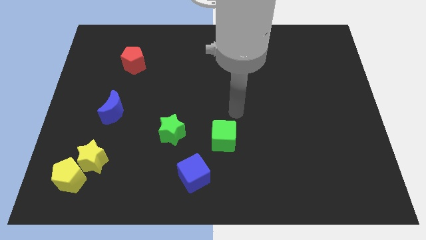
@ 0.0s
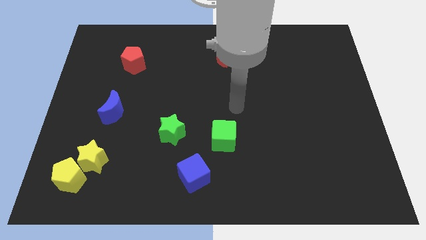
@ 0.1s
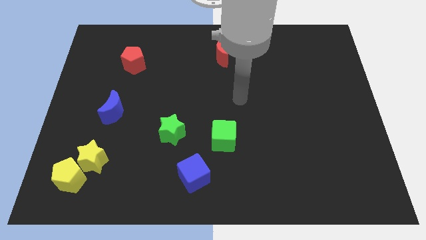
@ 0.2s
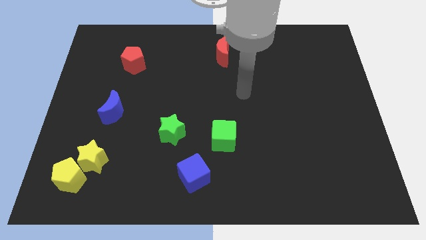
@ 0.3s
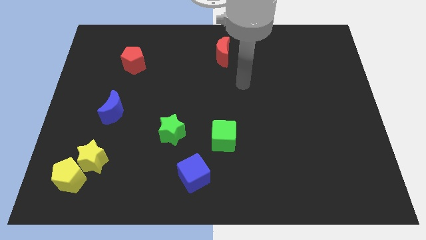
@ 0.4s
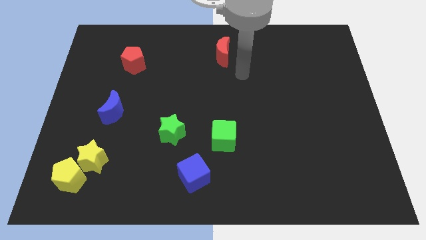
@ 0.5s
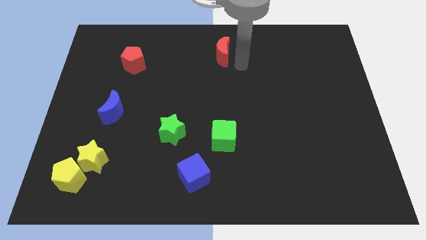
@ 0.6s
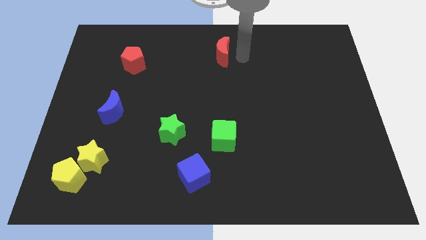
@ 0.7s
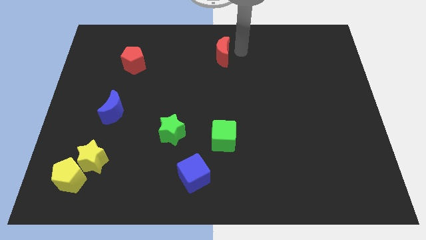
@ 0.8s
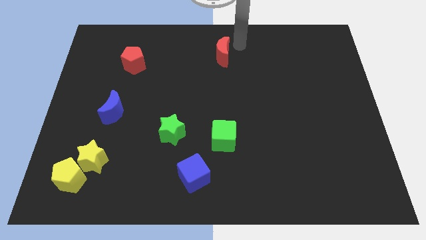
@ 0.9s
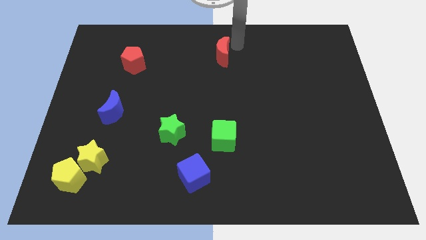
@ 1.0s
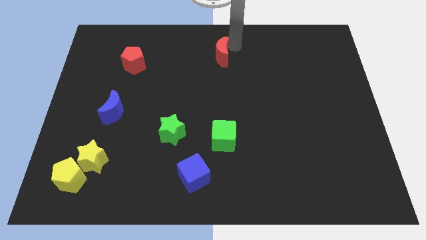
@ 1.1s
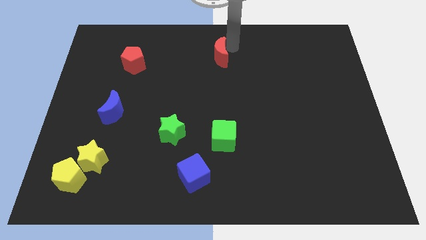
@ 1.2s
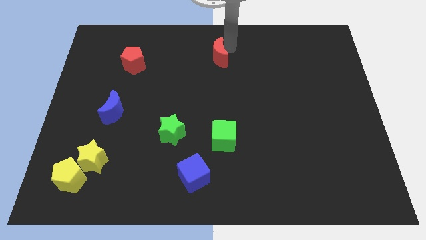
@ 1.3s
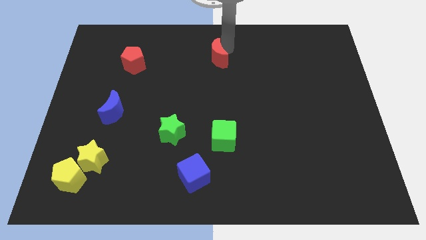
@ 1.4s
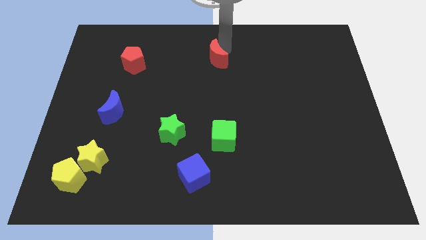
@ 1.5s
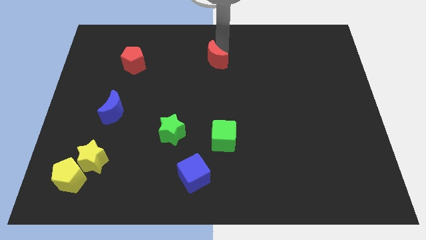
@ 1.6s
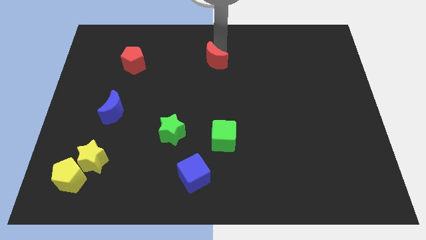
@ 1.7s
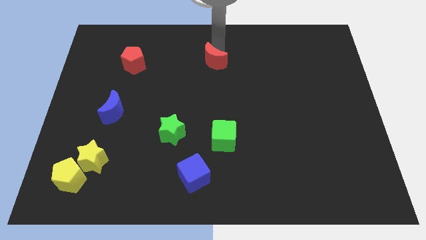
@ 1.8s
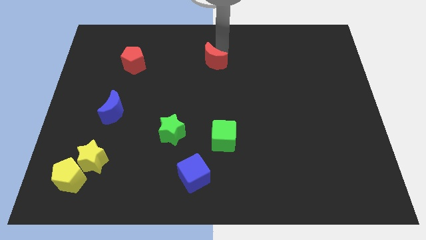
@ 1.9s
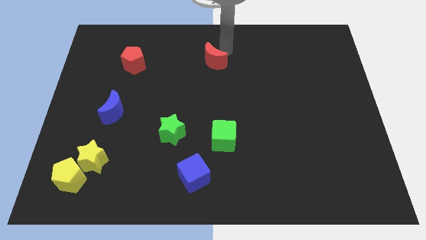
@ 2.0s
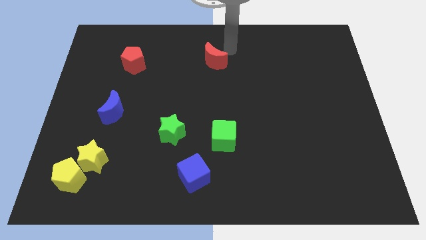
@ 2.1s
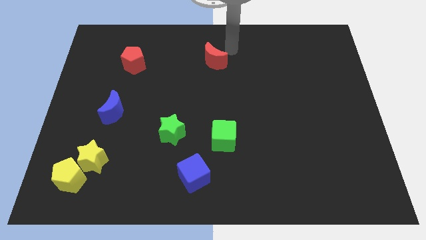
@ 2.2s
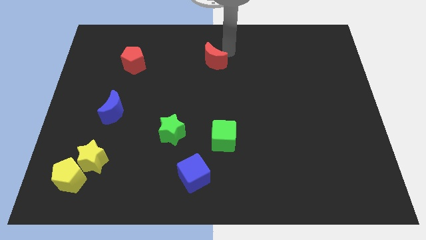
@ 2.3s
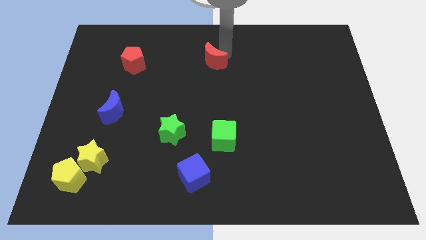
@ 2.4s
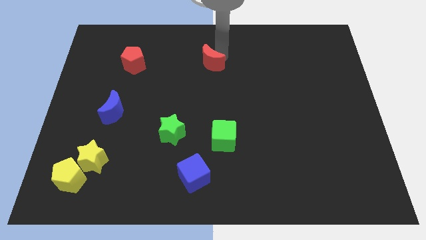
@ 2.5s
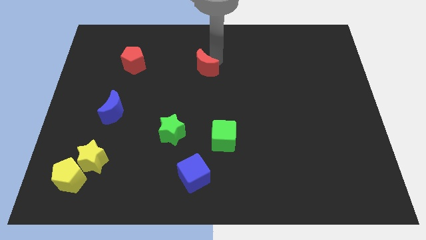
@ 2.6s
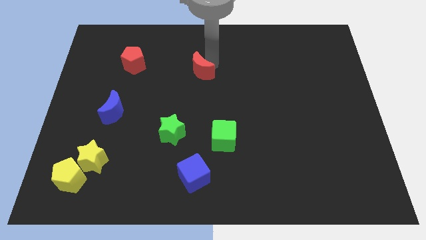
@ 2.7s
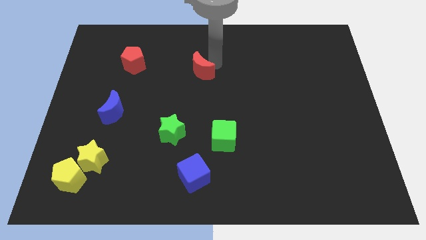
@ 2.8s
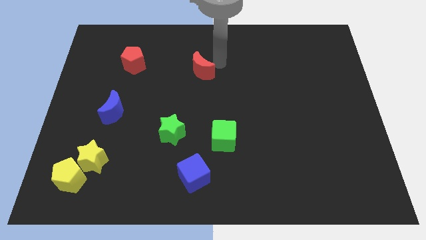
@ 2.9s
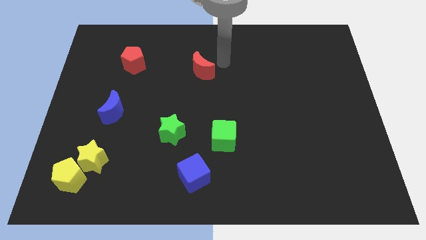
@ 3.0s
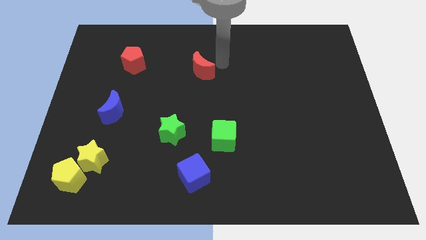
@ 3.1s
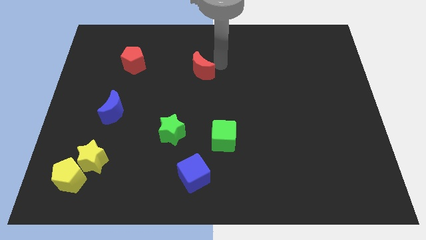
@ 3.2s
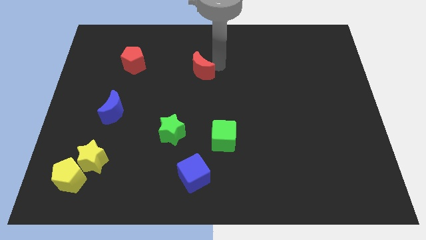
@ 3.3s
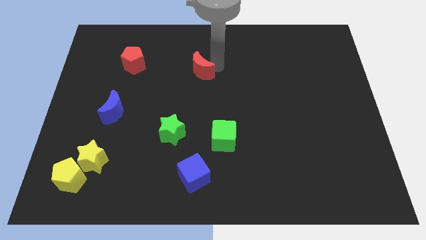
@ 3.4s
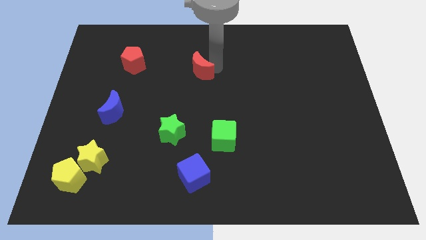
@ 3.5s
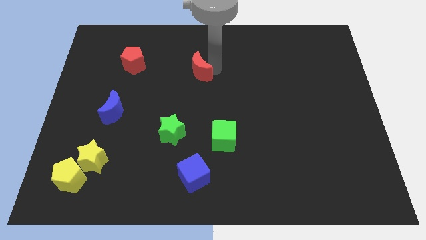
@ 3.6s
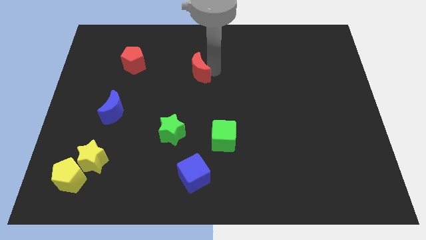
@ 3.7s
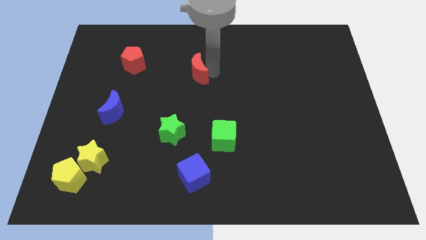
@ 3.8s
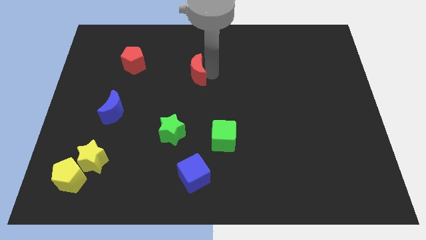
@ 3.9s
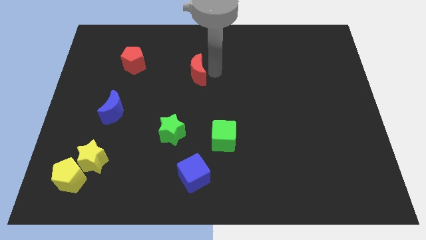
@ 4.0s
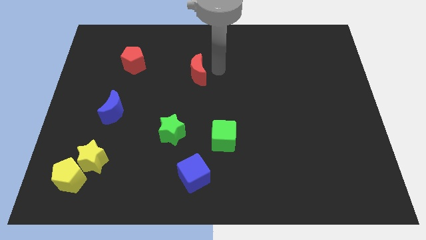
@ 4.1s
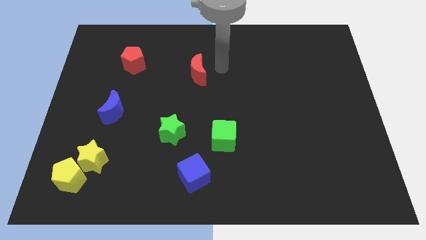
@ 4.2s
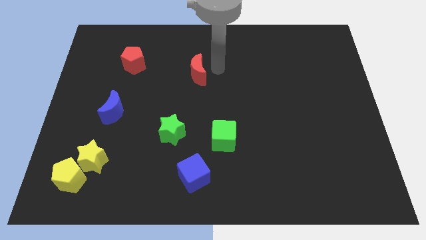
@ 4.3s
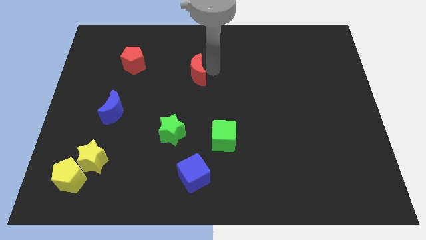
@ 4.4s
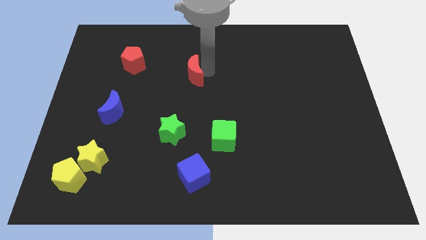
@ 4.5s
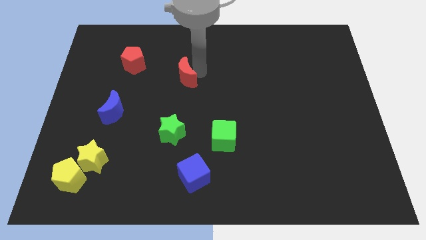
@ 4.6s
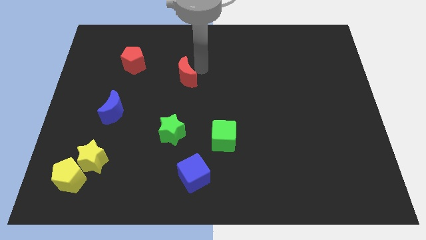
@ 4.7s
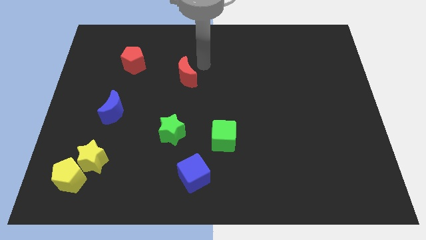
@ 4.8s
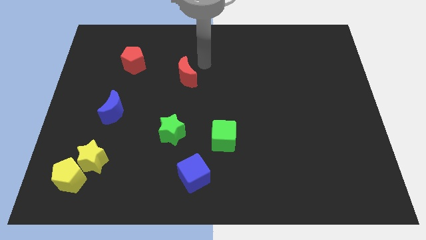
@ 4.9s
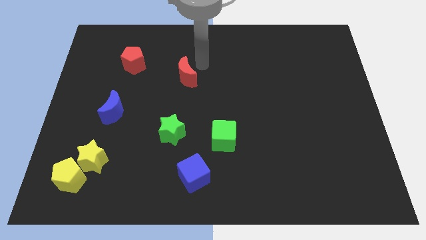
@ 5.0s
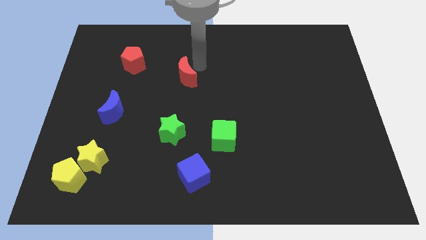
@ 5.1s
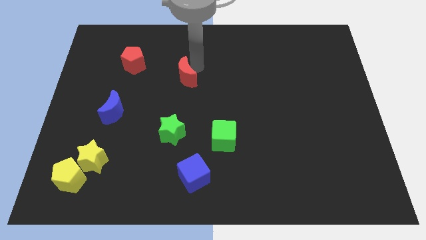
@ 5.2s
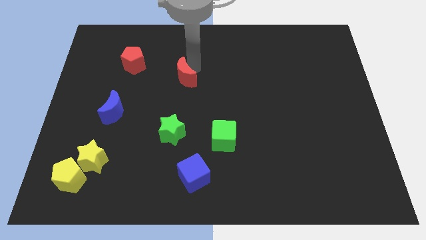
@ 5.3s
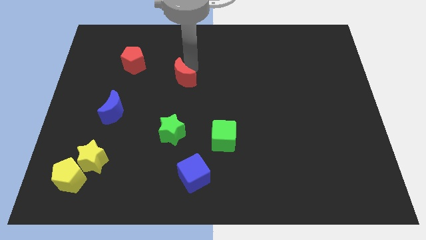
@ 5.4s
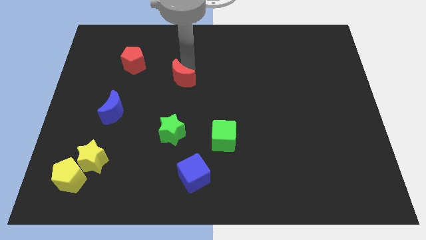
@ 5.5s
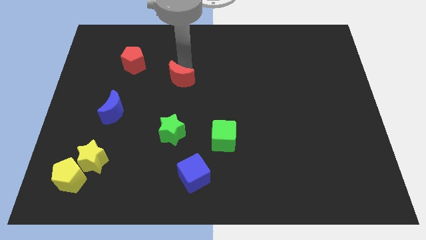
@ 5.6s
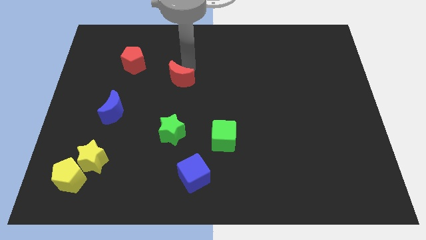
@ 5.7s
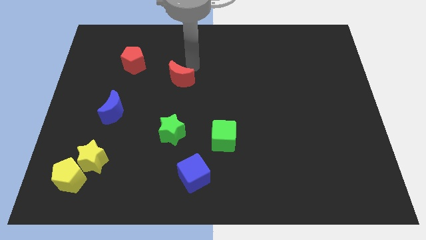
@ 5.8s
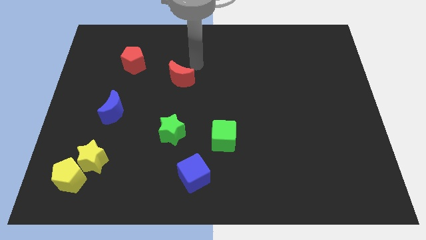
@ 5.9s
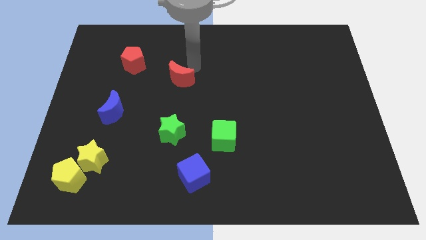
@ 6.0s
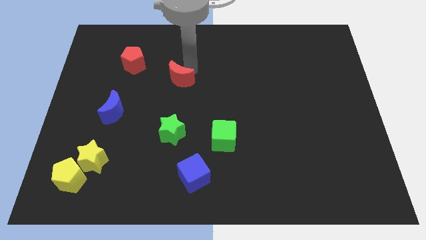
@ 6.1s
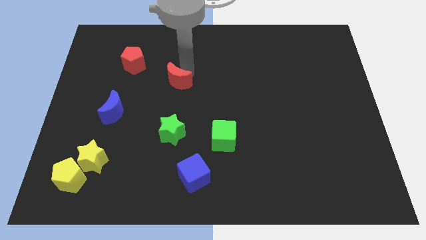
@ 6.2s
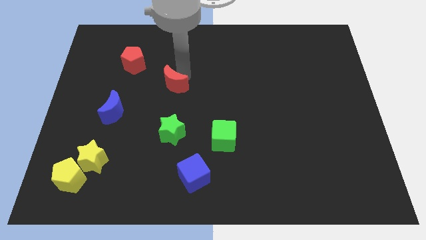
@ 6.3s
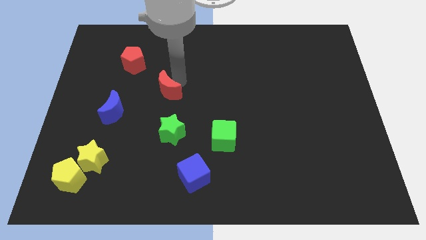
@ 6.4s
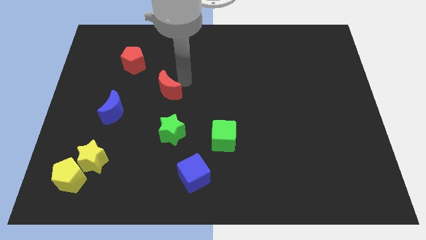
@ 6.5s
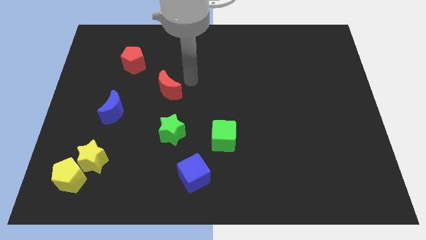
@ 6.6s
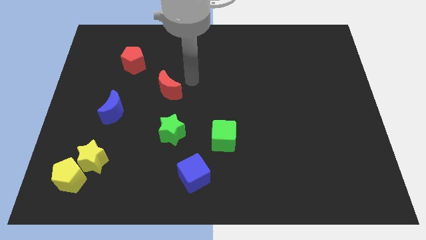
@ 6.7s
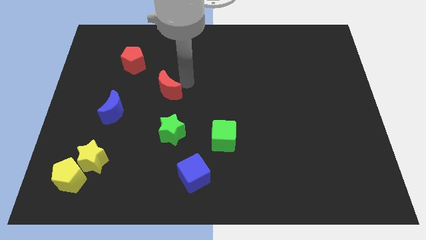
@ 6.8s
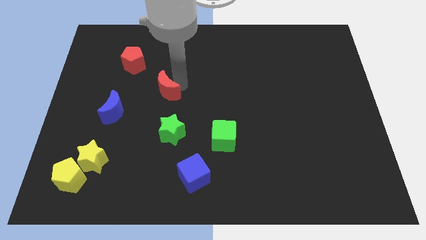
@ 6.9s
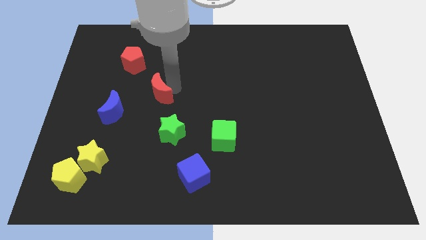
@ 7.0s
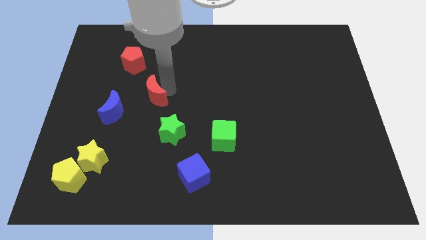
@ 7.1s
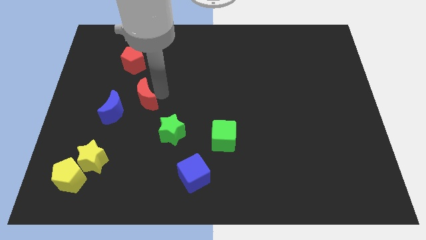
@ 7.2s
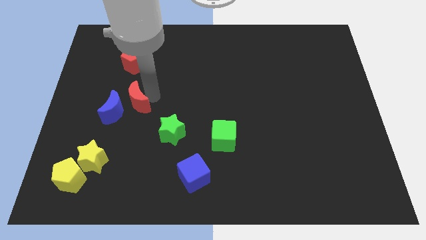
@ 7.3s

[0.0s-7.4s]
slide the red moon towards the blue moon
